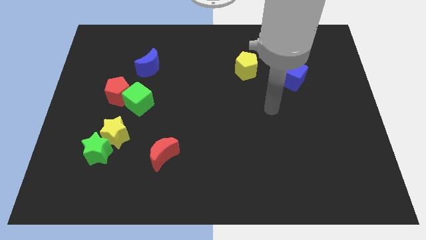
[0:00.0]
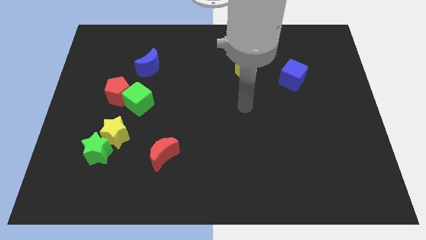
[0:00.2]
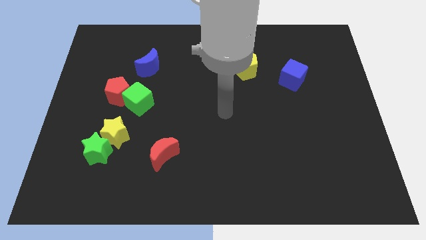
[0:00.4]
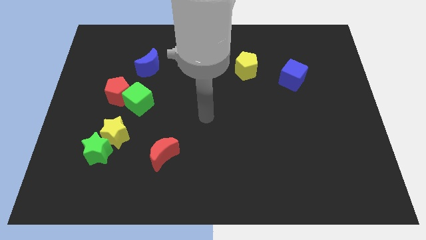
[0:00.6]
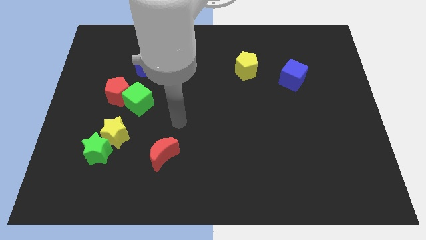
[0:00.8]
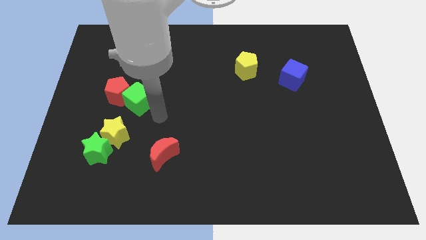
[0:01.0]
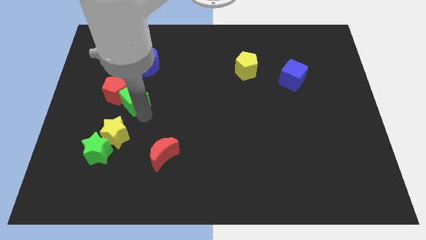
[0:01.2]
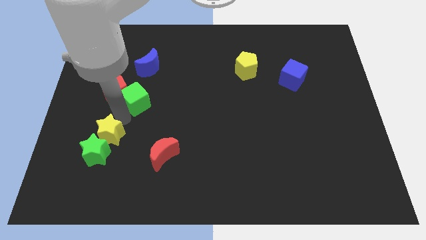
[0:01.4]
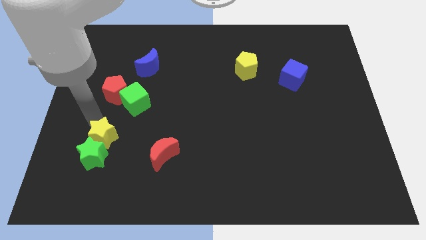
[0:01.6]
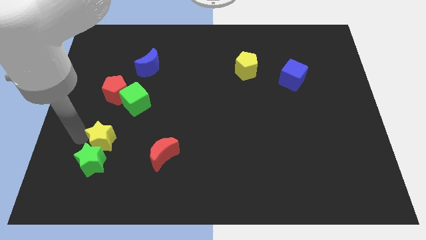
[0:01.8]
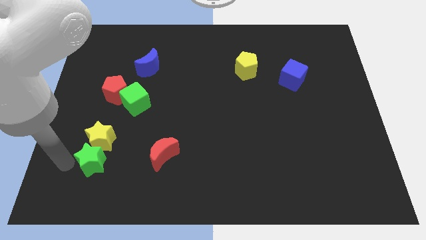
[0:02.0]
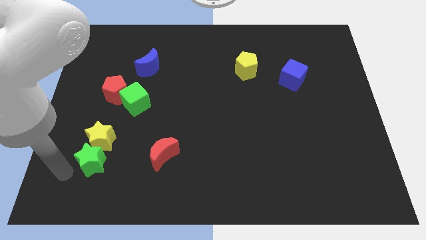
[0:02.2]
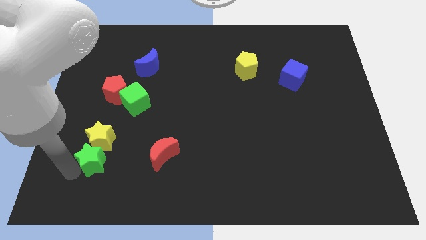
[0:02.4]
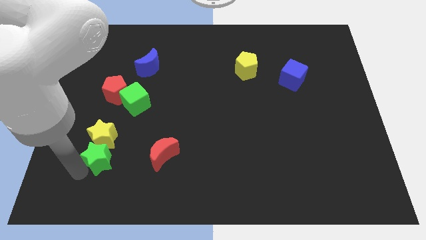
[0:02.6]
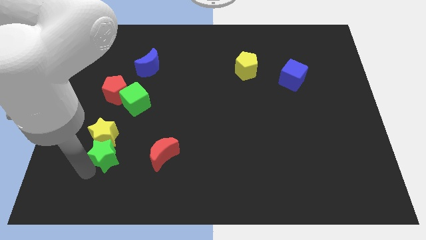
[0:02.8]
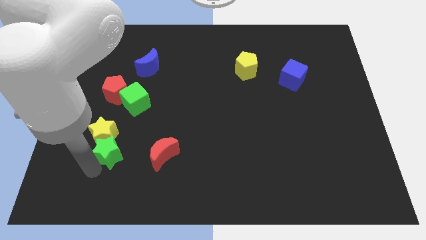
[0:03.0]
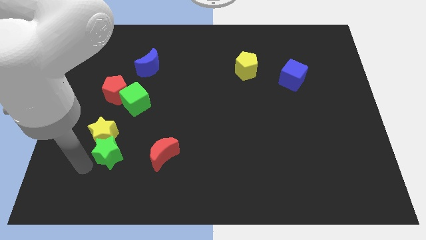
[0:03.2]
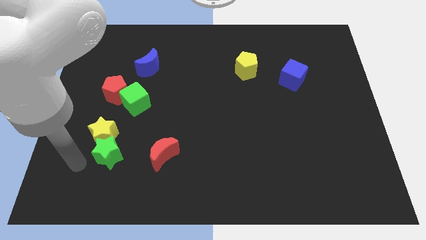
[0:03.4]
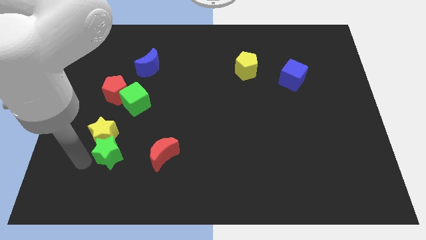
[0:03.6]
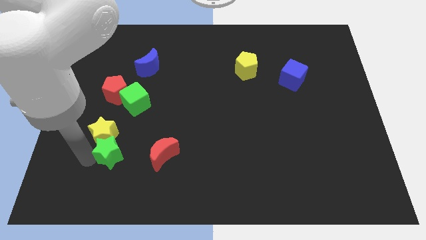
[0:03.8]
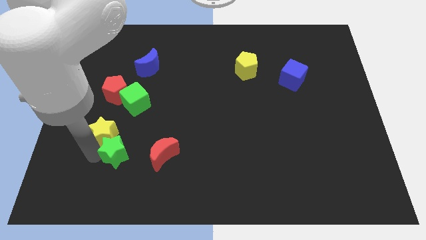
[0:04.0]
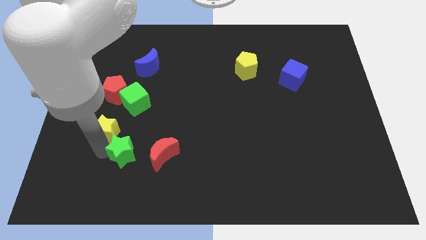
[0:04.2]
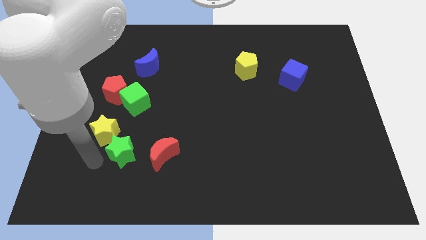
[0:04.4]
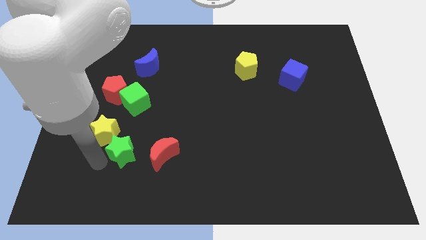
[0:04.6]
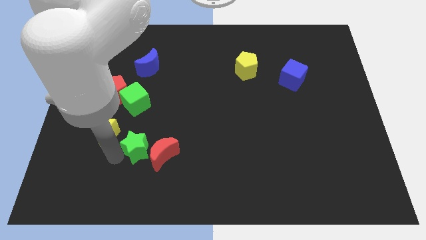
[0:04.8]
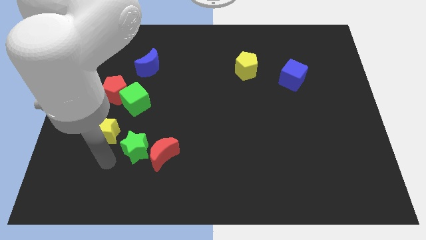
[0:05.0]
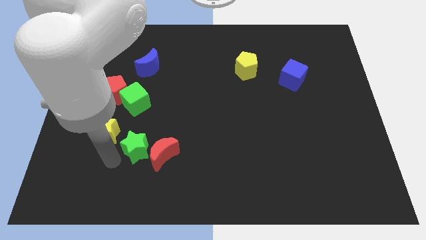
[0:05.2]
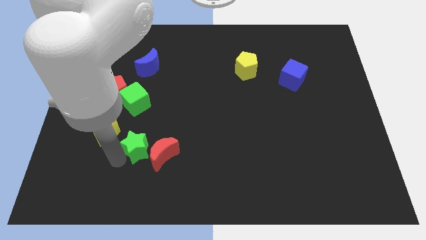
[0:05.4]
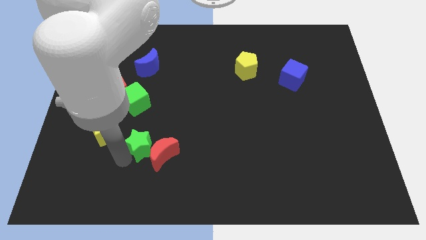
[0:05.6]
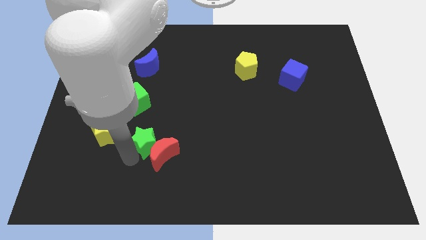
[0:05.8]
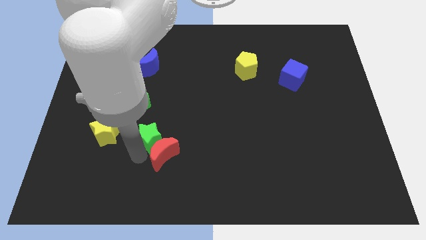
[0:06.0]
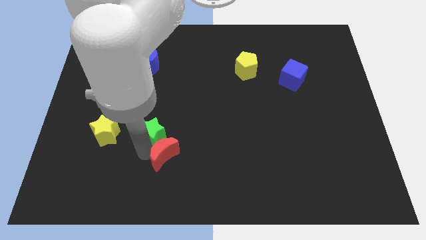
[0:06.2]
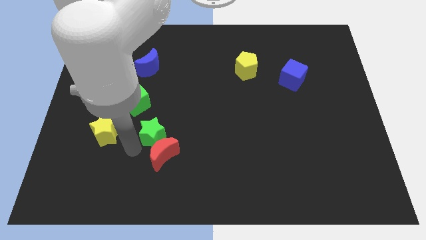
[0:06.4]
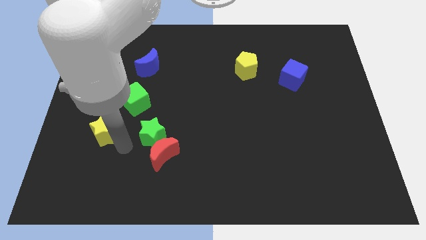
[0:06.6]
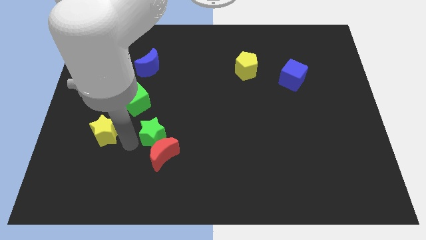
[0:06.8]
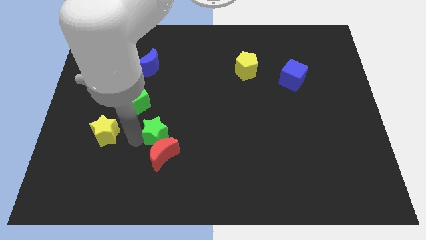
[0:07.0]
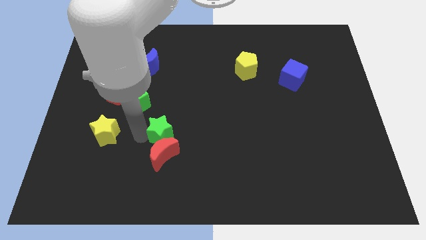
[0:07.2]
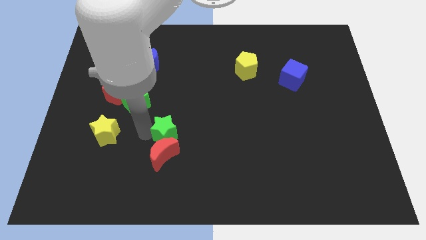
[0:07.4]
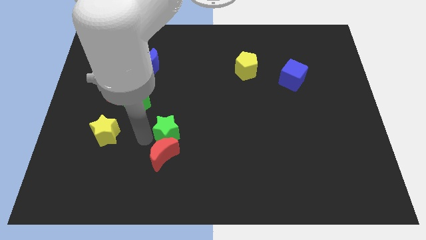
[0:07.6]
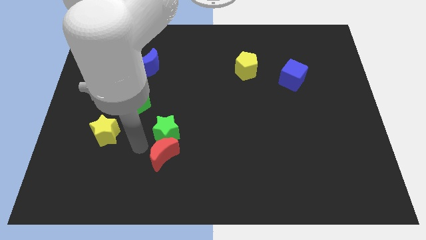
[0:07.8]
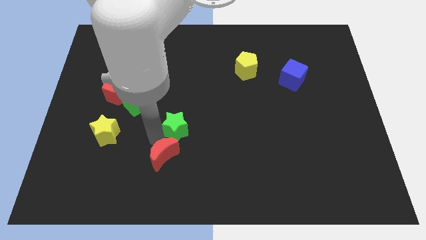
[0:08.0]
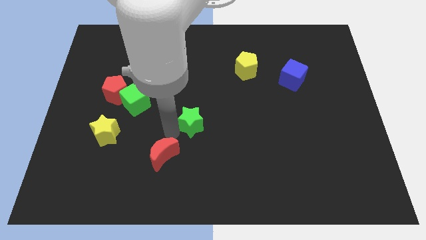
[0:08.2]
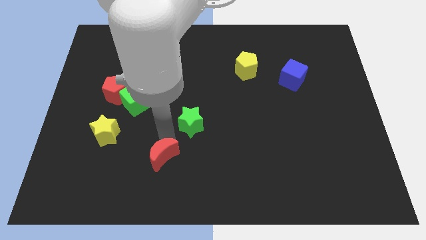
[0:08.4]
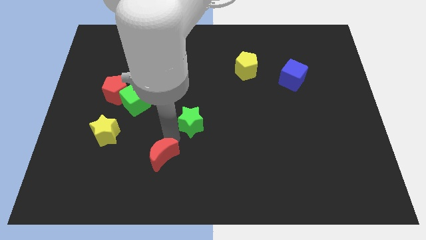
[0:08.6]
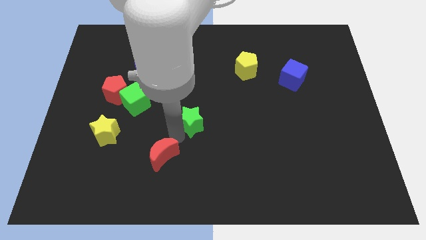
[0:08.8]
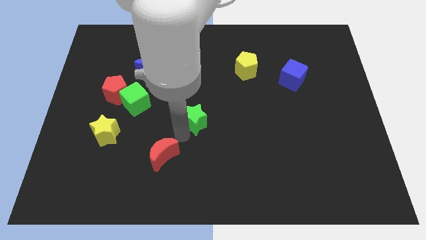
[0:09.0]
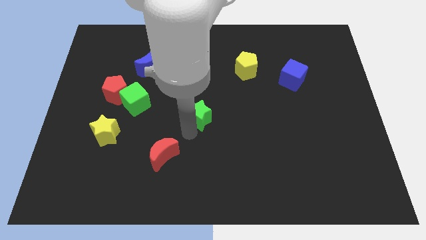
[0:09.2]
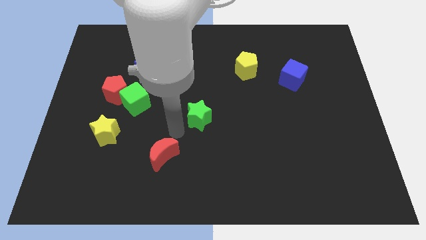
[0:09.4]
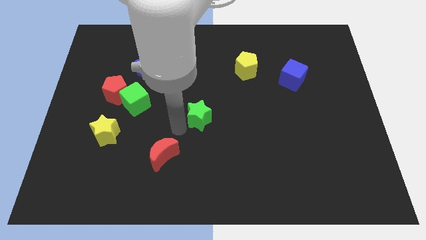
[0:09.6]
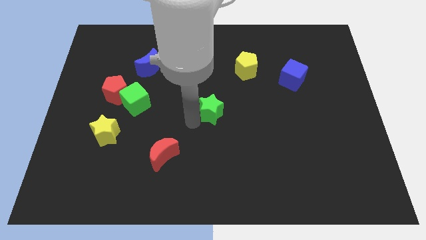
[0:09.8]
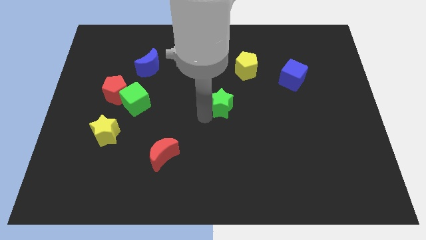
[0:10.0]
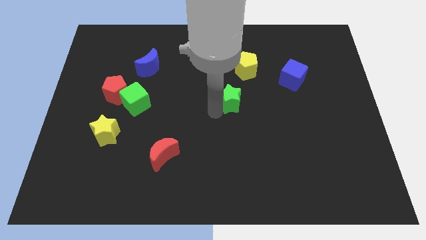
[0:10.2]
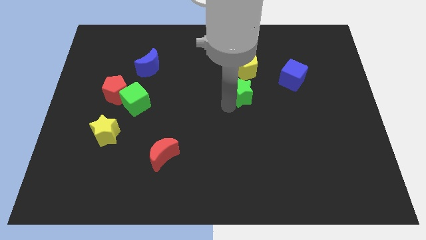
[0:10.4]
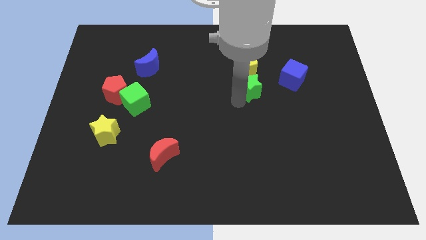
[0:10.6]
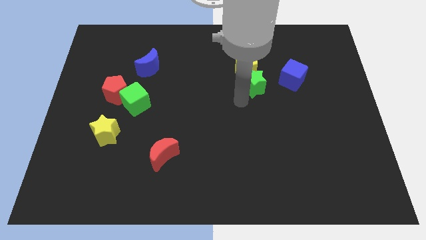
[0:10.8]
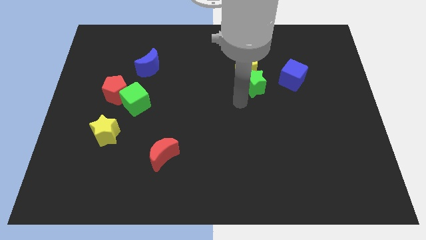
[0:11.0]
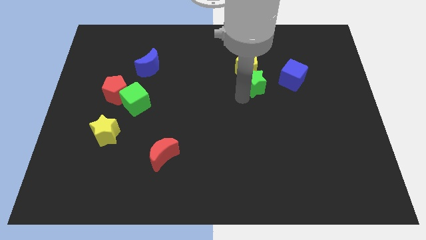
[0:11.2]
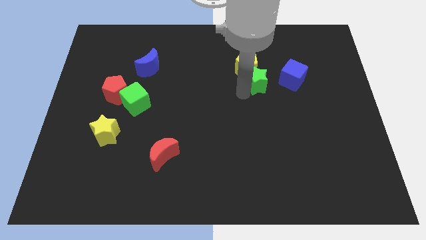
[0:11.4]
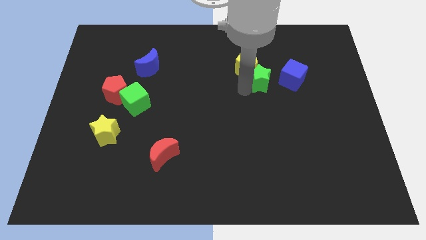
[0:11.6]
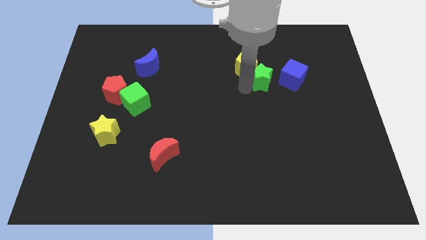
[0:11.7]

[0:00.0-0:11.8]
push the green star to the right of the yellow pentagon

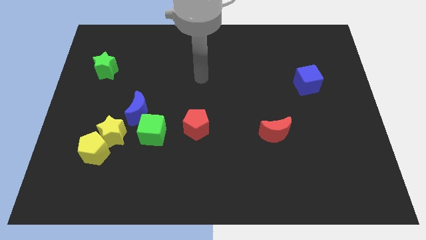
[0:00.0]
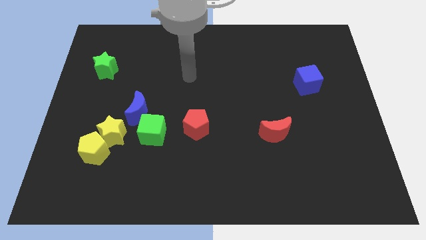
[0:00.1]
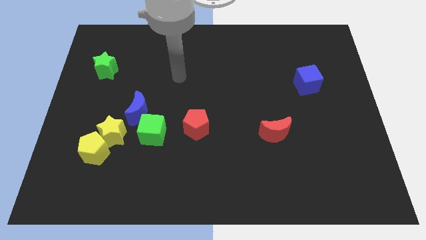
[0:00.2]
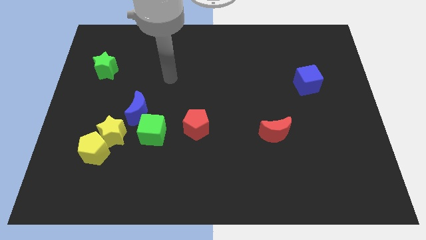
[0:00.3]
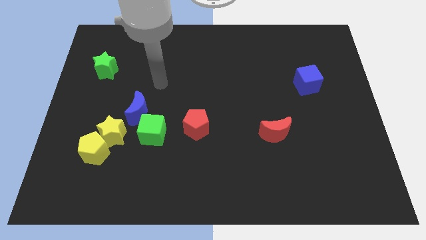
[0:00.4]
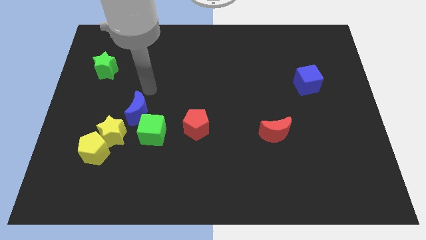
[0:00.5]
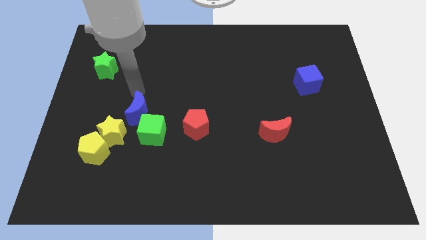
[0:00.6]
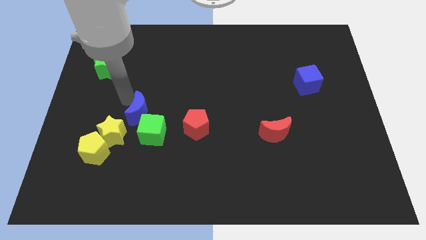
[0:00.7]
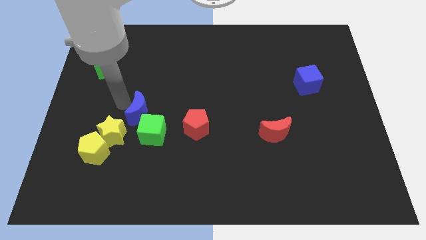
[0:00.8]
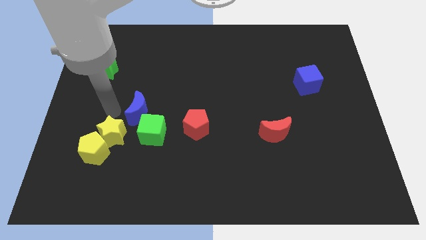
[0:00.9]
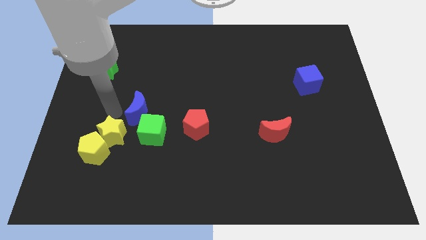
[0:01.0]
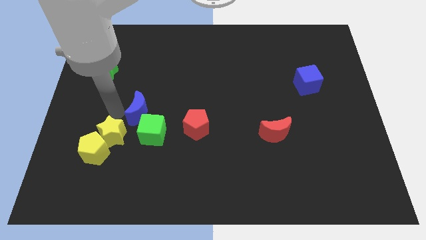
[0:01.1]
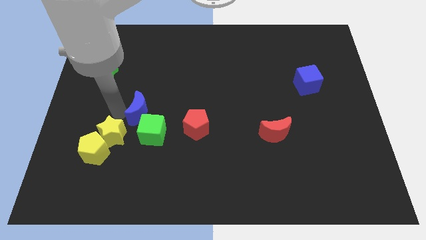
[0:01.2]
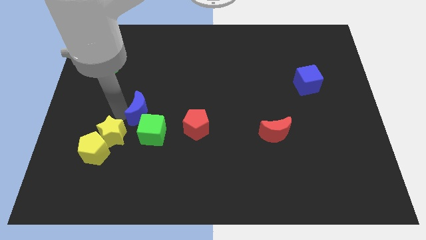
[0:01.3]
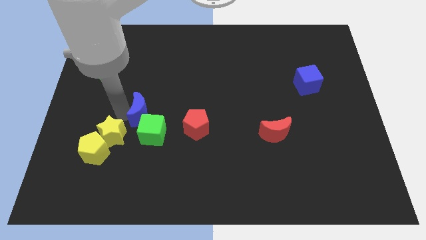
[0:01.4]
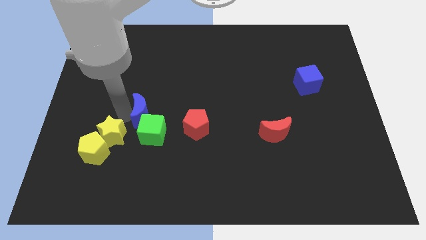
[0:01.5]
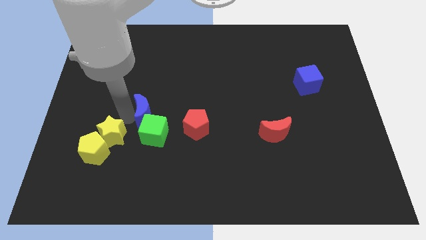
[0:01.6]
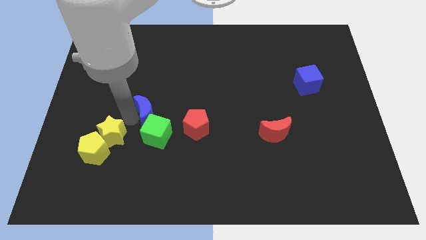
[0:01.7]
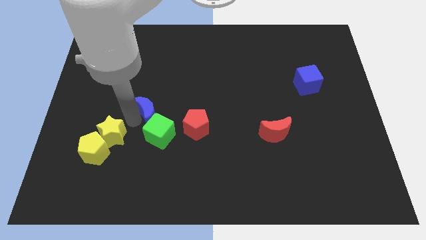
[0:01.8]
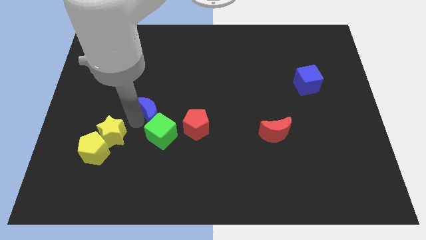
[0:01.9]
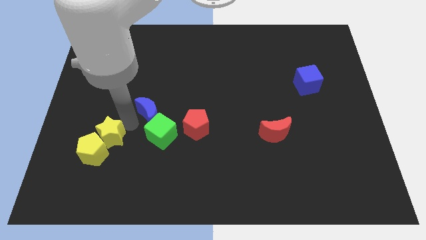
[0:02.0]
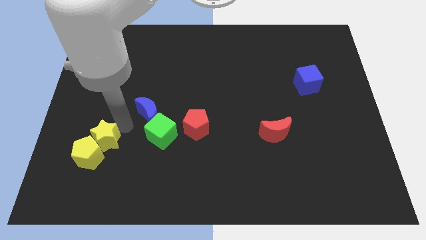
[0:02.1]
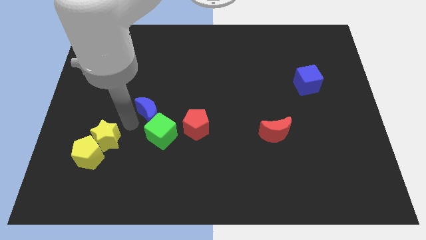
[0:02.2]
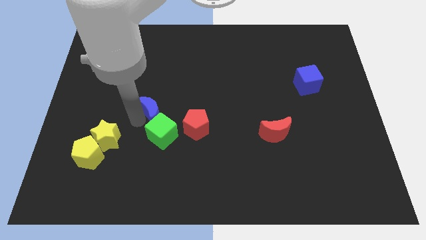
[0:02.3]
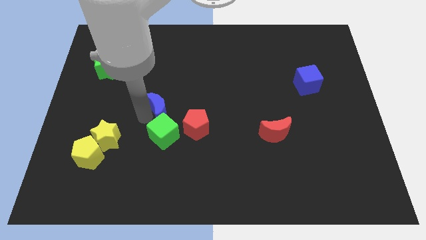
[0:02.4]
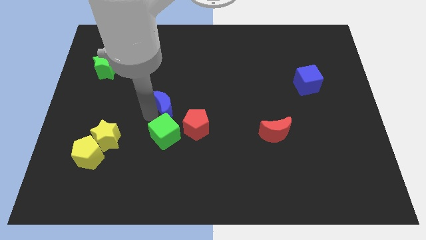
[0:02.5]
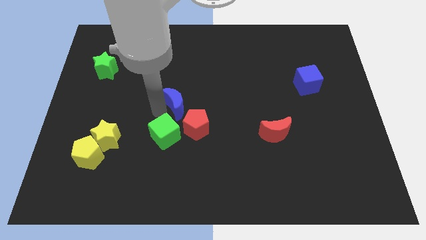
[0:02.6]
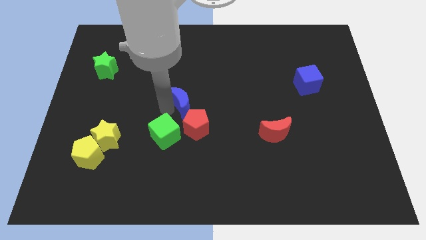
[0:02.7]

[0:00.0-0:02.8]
move the blue moon to the top of the red pentagon
